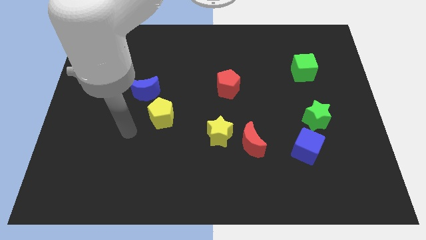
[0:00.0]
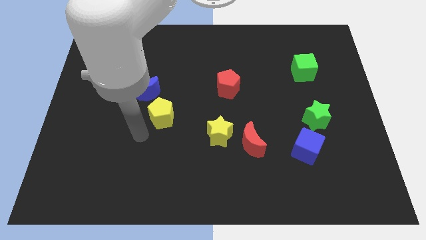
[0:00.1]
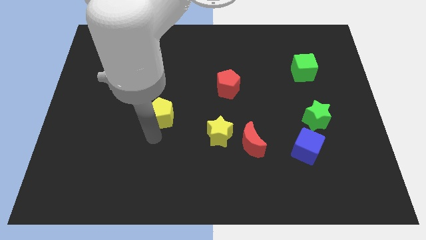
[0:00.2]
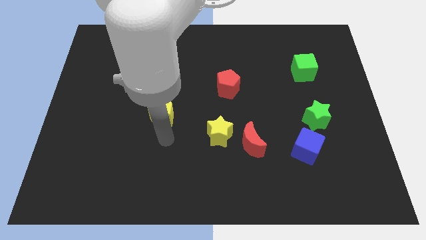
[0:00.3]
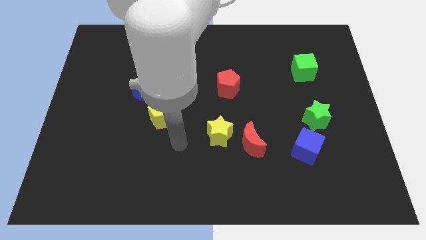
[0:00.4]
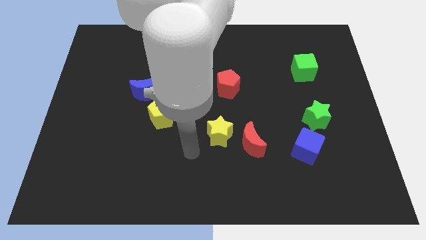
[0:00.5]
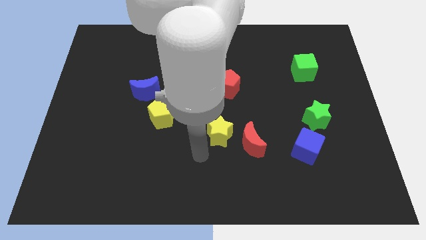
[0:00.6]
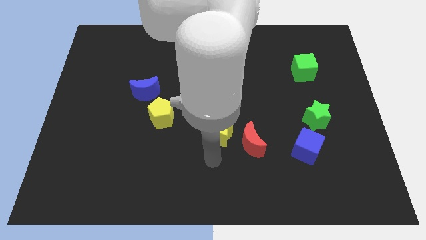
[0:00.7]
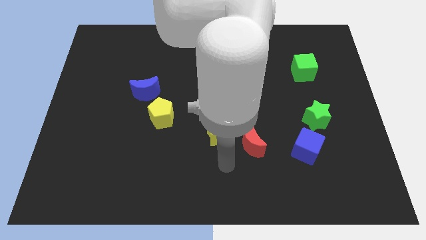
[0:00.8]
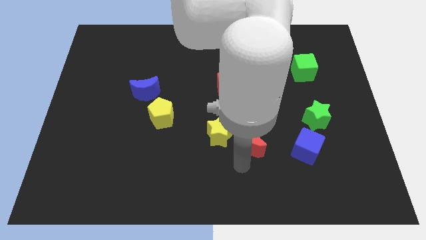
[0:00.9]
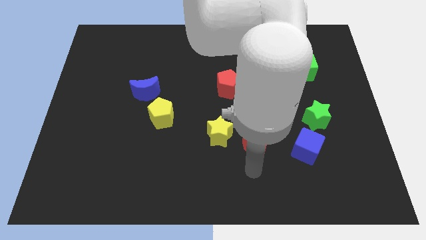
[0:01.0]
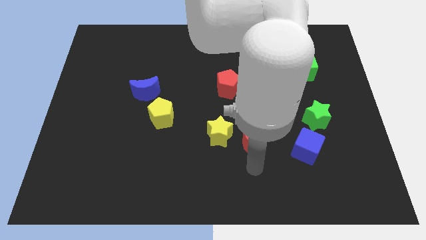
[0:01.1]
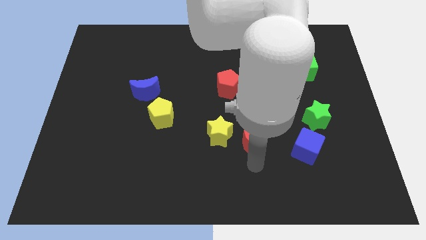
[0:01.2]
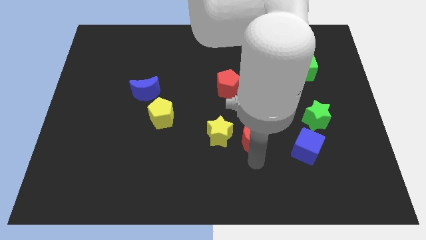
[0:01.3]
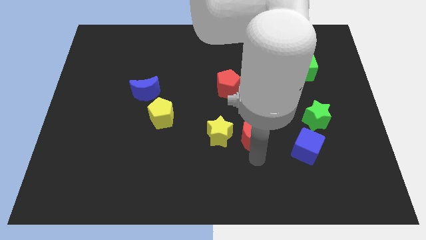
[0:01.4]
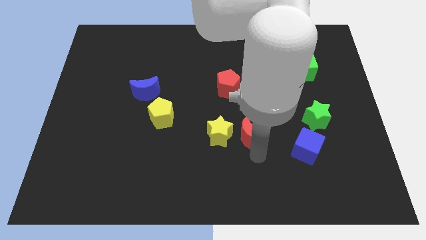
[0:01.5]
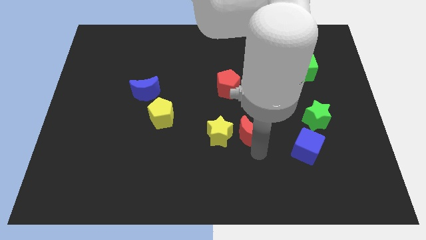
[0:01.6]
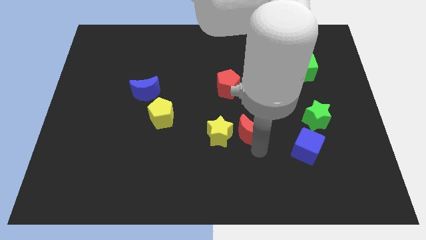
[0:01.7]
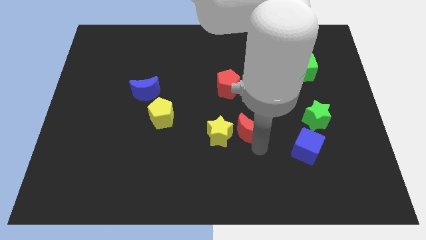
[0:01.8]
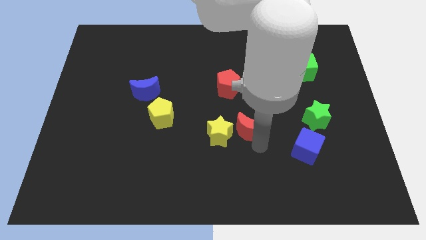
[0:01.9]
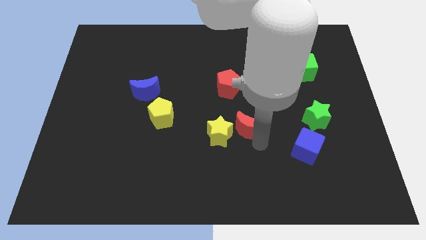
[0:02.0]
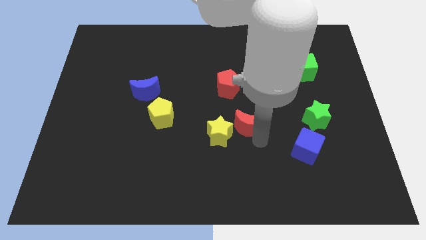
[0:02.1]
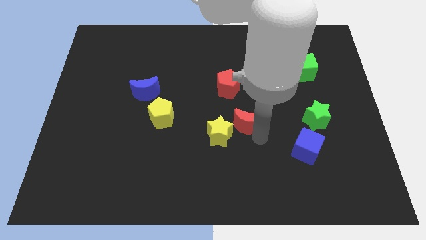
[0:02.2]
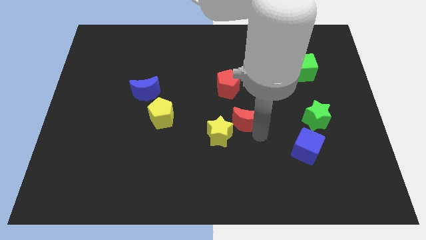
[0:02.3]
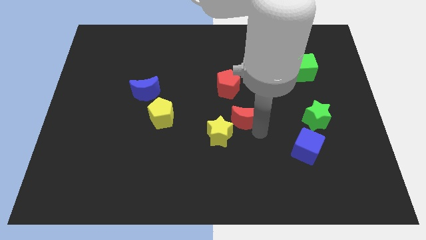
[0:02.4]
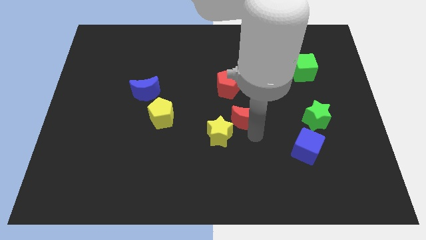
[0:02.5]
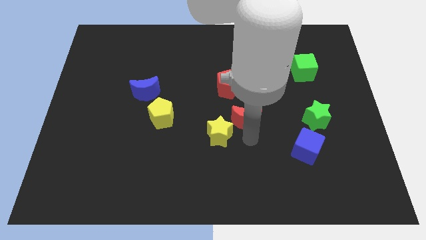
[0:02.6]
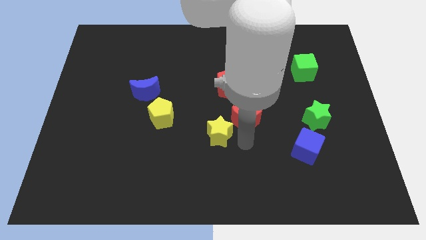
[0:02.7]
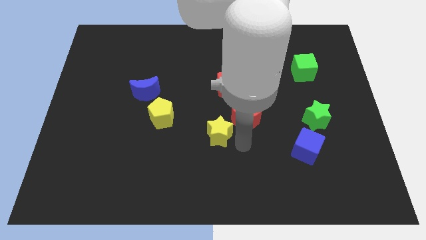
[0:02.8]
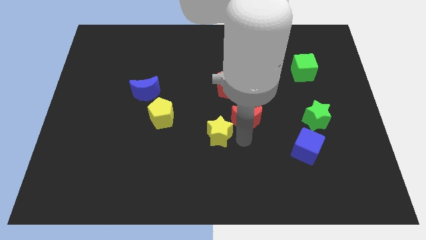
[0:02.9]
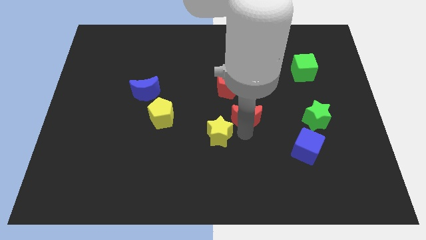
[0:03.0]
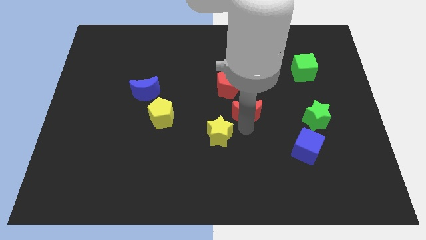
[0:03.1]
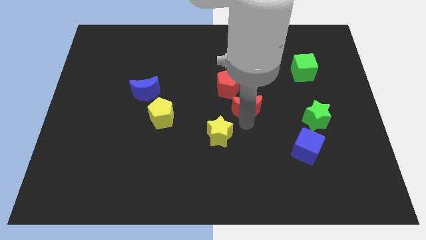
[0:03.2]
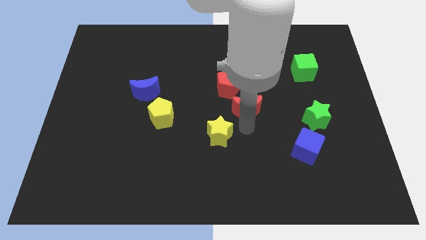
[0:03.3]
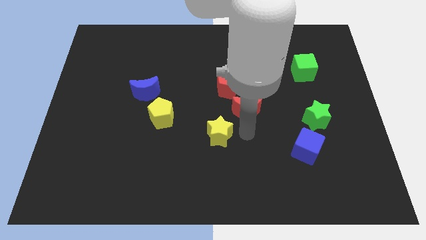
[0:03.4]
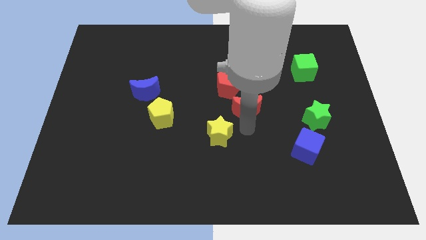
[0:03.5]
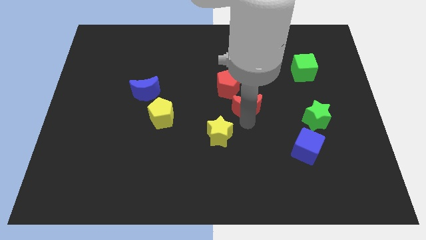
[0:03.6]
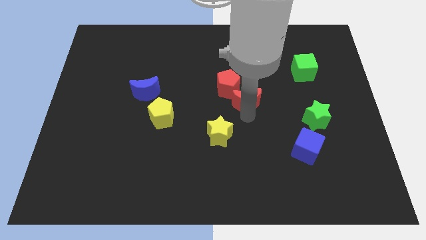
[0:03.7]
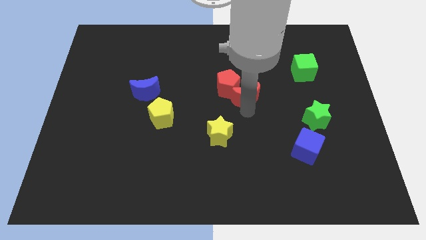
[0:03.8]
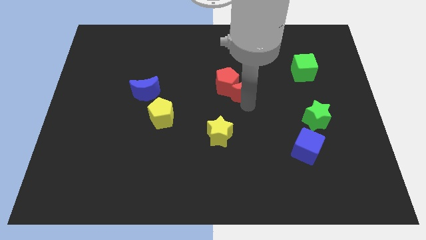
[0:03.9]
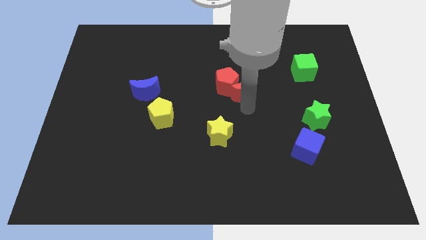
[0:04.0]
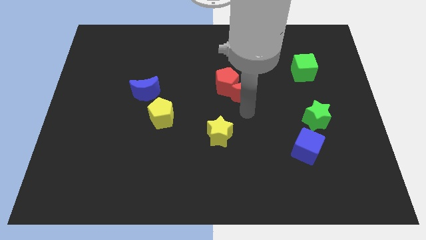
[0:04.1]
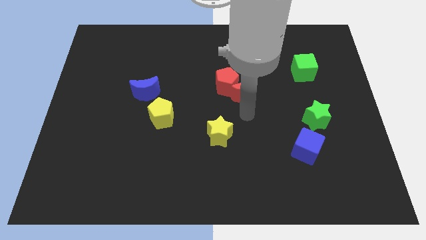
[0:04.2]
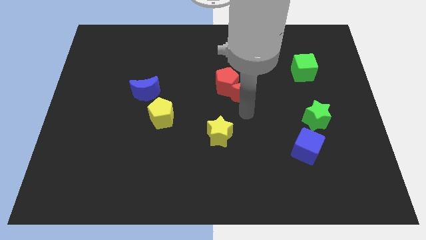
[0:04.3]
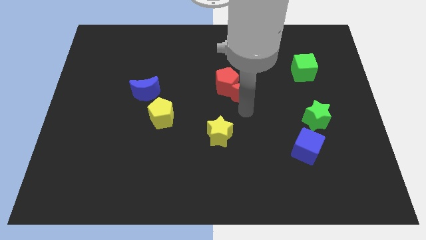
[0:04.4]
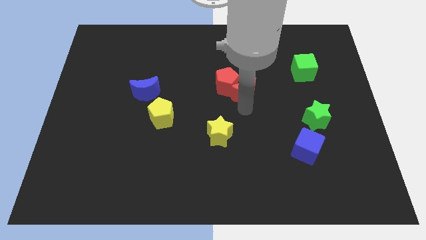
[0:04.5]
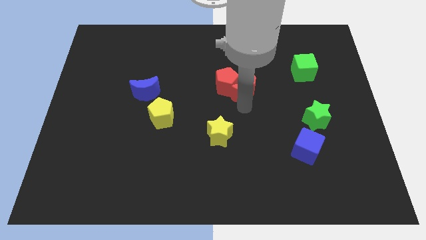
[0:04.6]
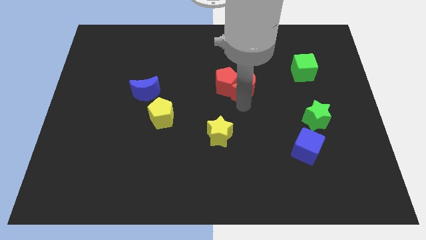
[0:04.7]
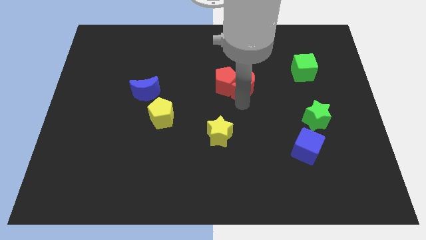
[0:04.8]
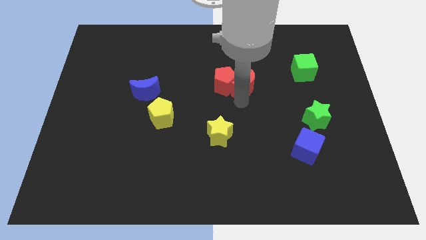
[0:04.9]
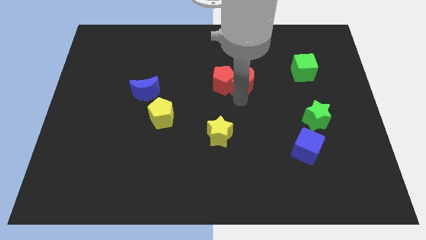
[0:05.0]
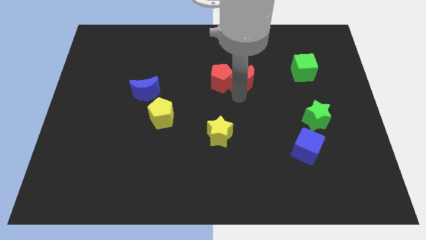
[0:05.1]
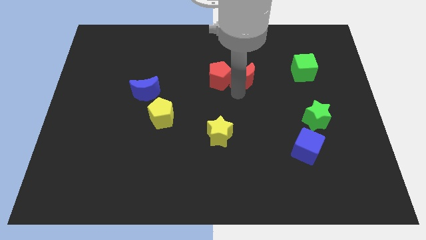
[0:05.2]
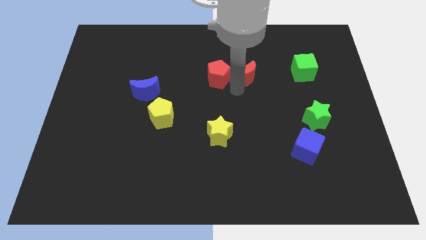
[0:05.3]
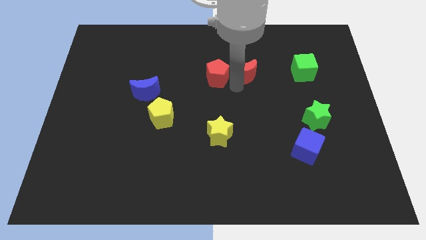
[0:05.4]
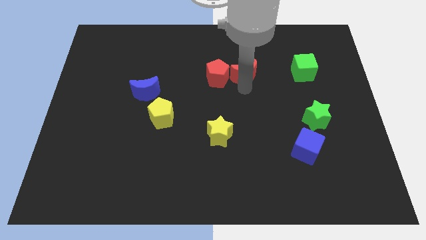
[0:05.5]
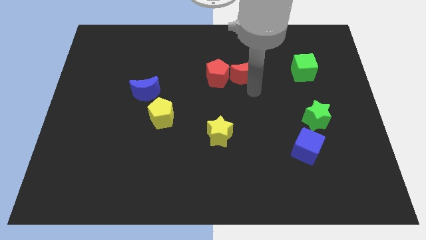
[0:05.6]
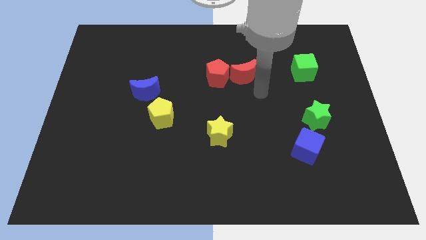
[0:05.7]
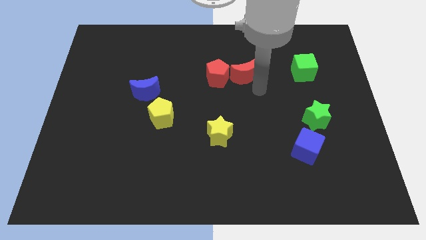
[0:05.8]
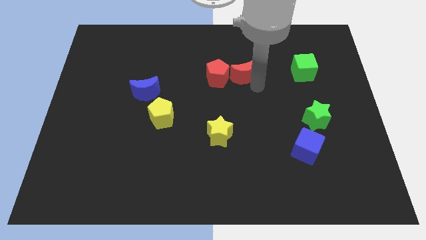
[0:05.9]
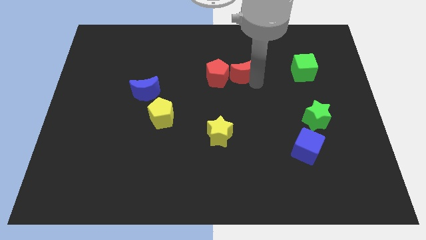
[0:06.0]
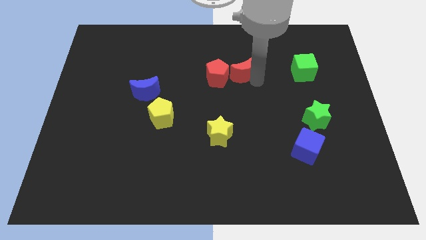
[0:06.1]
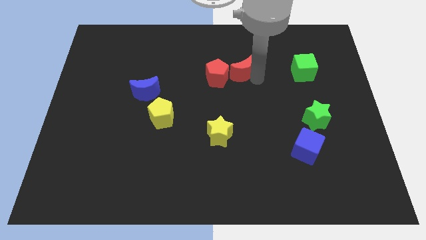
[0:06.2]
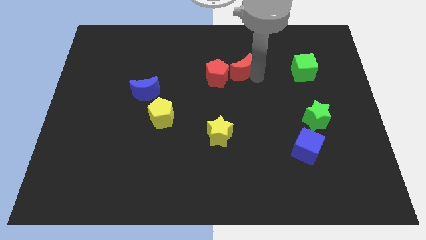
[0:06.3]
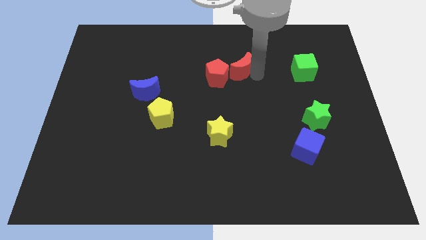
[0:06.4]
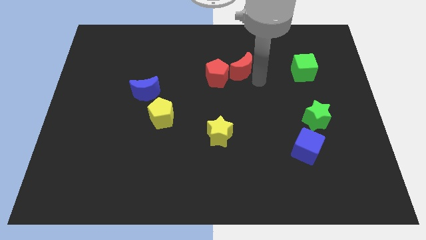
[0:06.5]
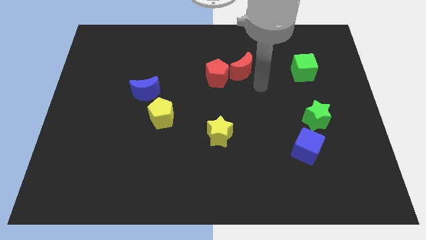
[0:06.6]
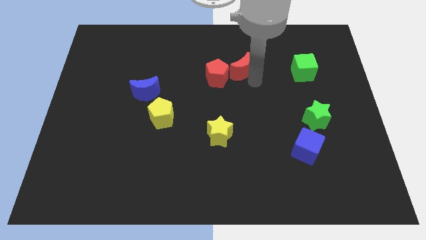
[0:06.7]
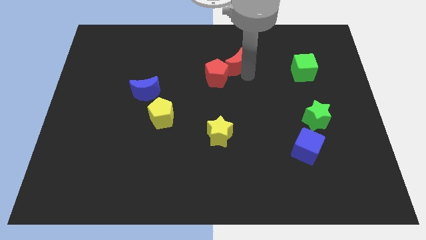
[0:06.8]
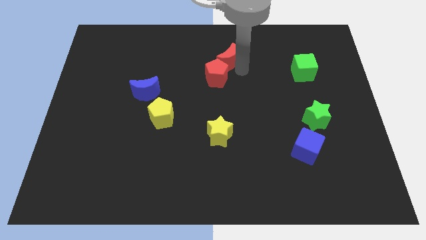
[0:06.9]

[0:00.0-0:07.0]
put the red moon to the top side of the red pentagon
